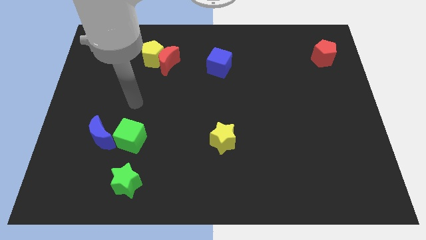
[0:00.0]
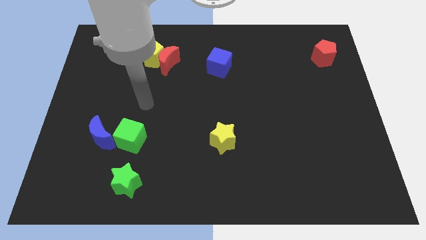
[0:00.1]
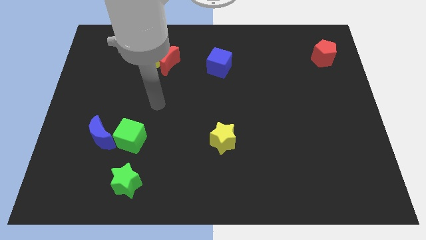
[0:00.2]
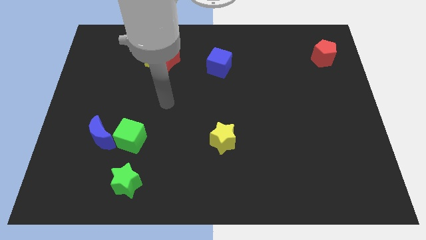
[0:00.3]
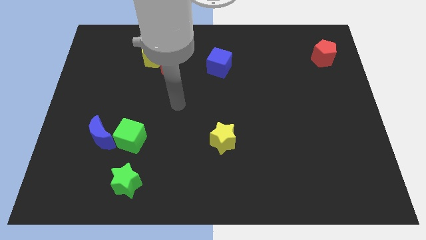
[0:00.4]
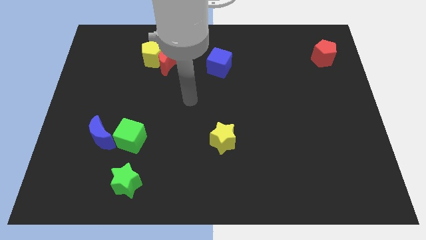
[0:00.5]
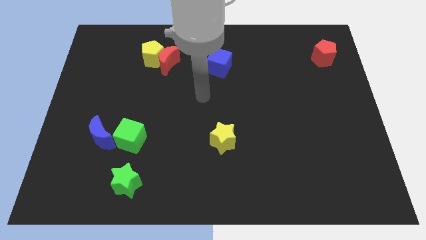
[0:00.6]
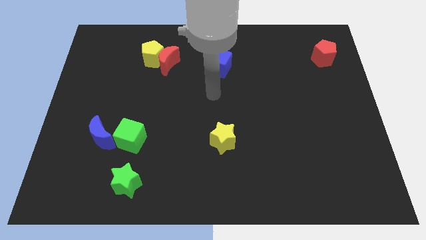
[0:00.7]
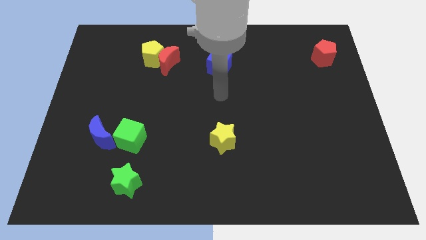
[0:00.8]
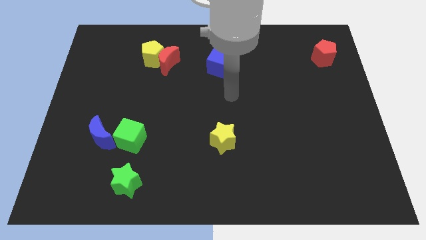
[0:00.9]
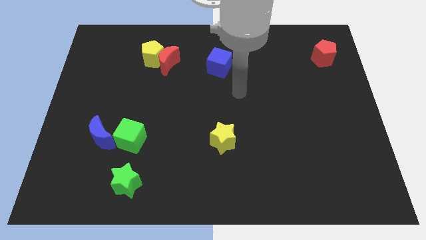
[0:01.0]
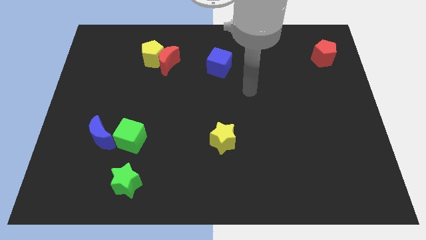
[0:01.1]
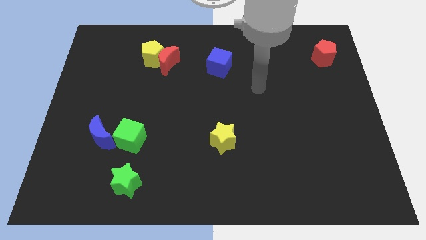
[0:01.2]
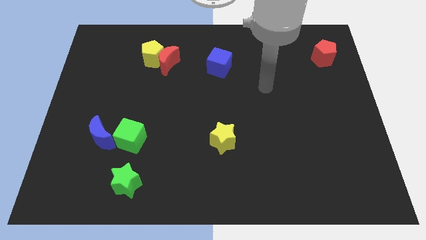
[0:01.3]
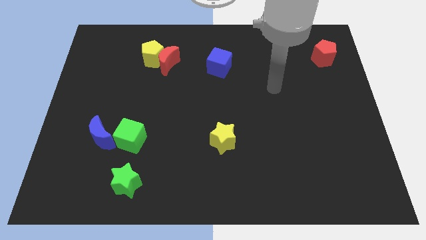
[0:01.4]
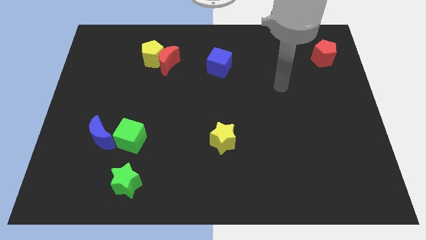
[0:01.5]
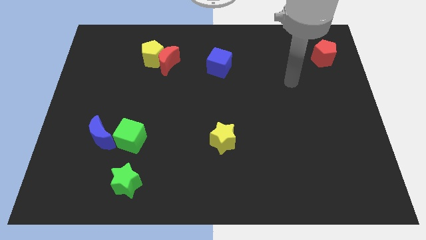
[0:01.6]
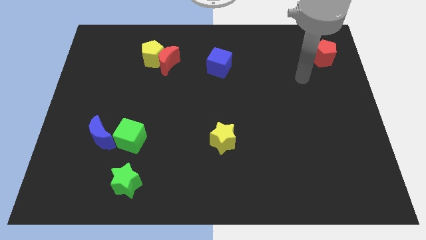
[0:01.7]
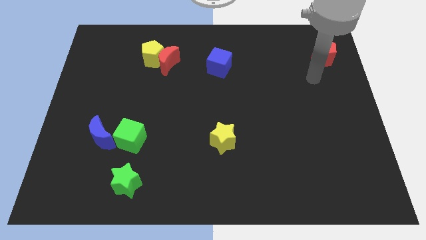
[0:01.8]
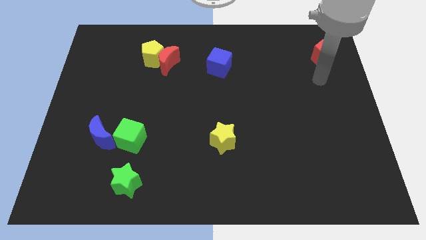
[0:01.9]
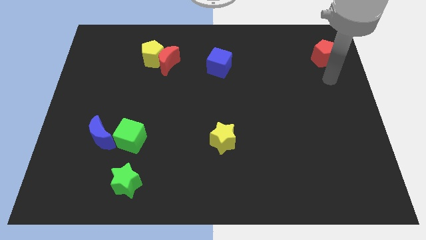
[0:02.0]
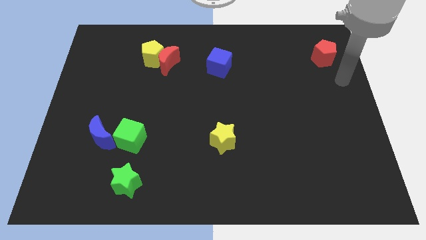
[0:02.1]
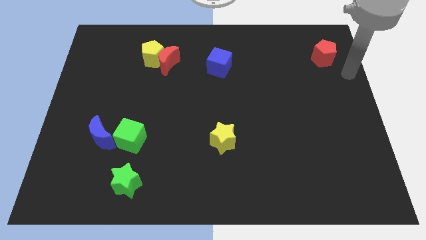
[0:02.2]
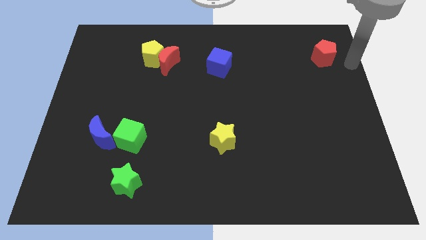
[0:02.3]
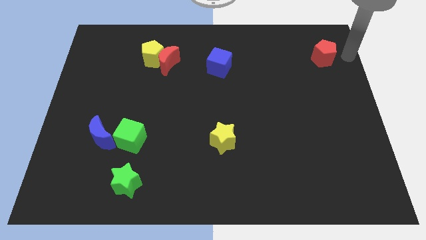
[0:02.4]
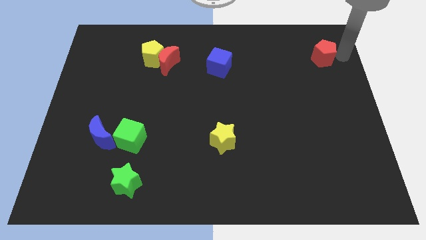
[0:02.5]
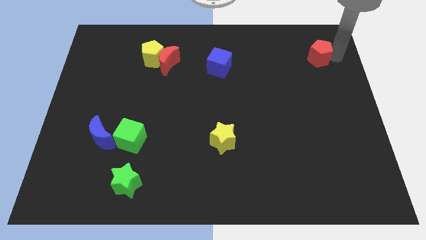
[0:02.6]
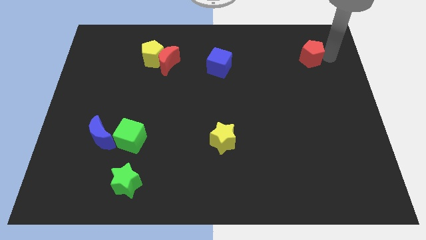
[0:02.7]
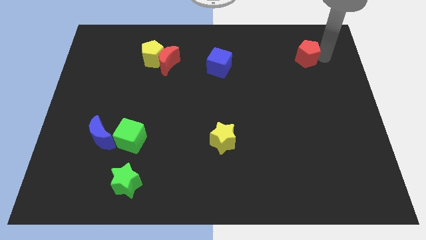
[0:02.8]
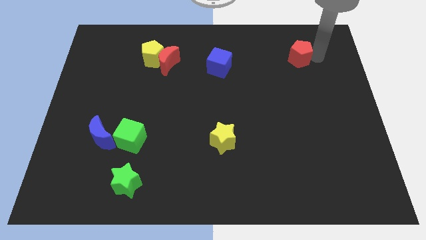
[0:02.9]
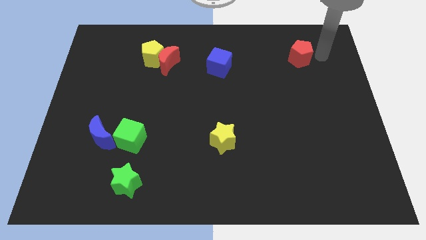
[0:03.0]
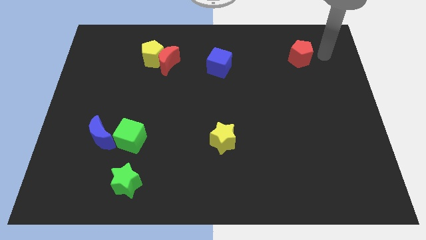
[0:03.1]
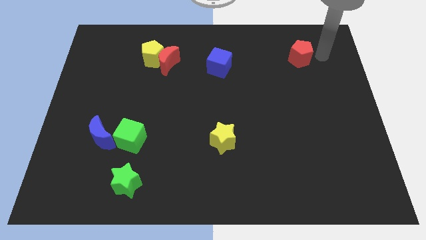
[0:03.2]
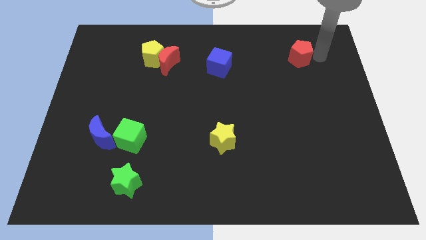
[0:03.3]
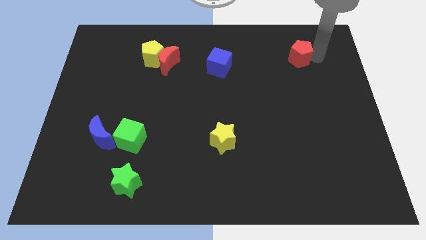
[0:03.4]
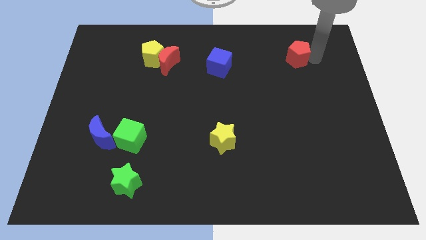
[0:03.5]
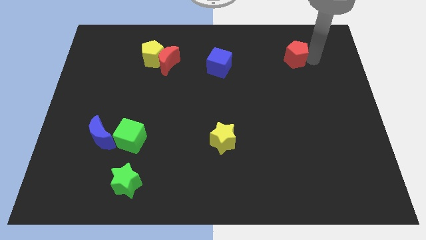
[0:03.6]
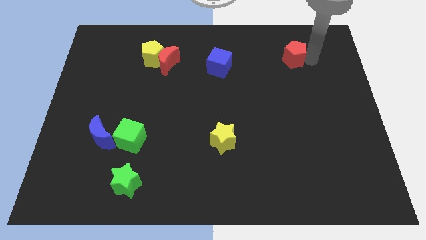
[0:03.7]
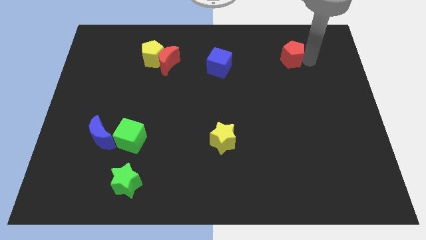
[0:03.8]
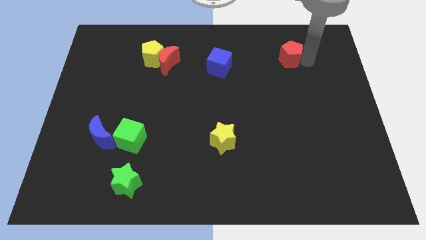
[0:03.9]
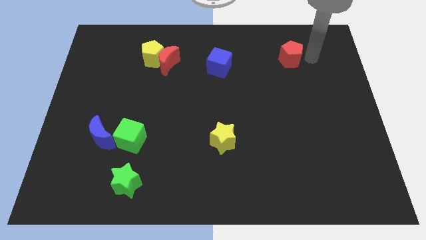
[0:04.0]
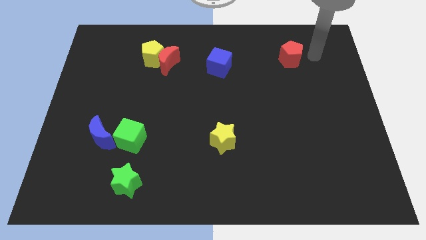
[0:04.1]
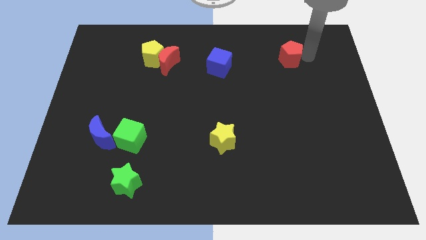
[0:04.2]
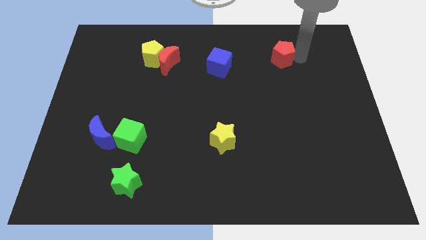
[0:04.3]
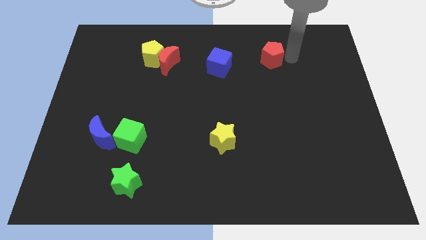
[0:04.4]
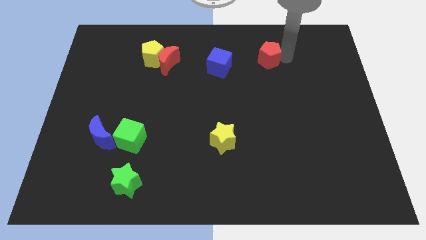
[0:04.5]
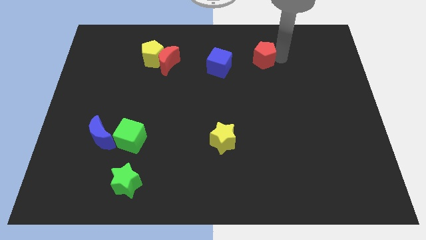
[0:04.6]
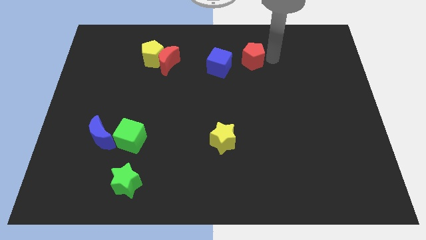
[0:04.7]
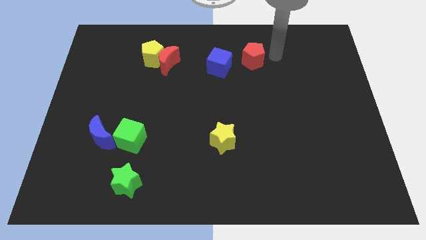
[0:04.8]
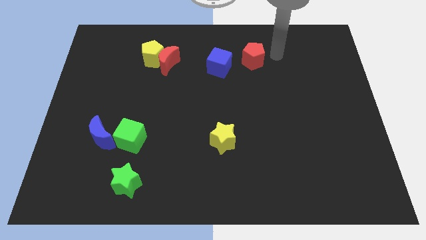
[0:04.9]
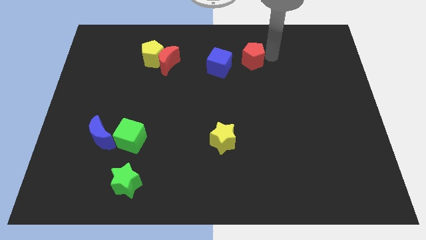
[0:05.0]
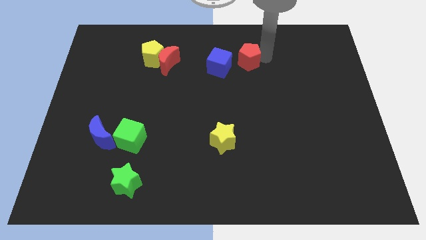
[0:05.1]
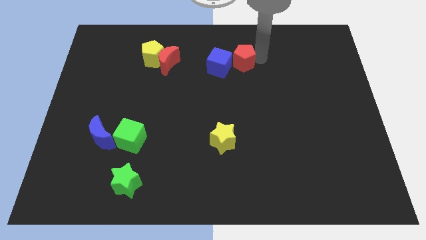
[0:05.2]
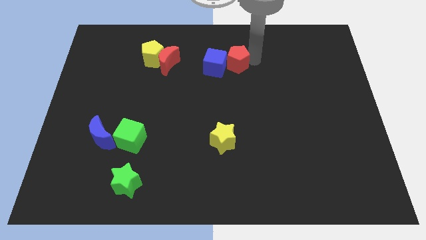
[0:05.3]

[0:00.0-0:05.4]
move the red pentagon to the blue cube

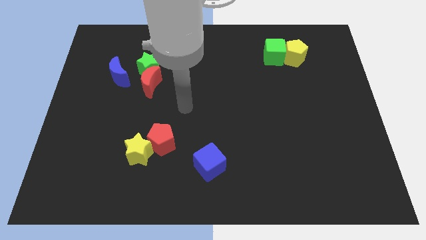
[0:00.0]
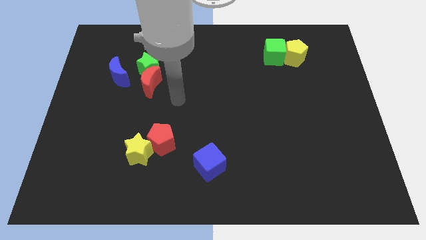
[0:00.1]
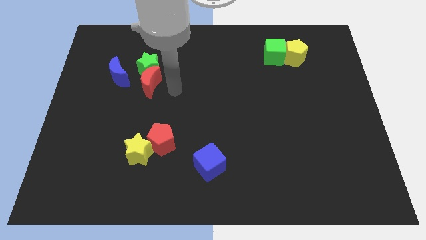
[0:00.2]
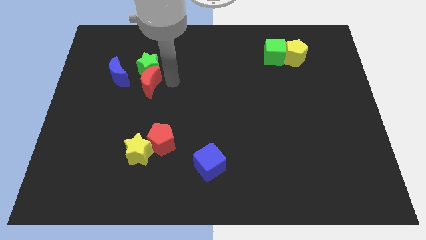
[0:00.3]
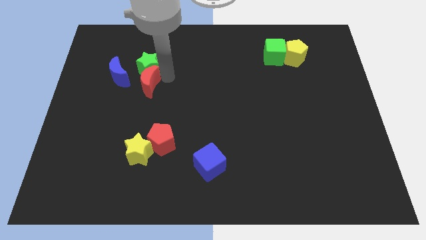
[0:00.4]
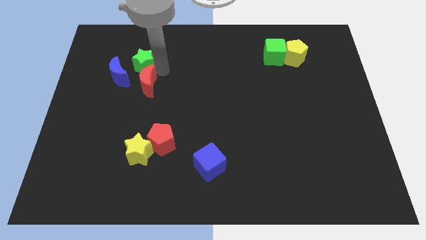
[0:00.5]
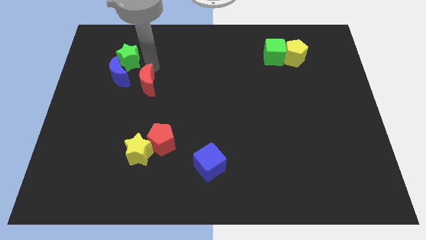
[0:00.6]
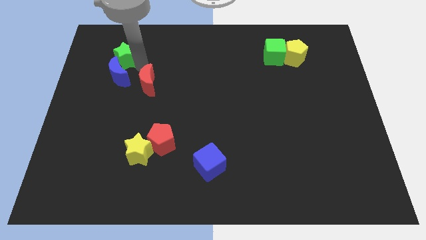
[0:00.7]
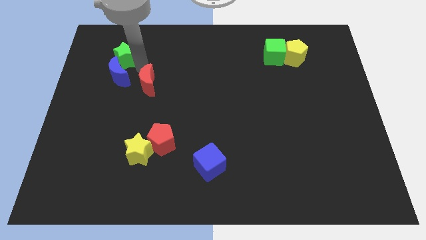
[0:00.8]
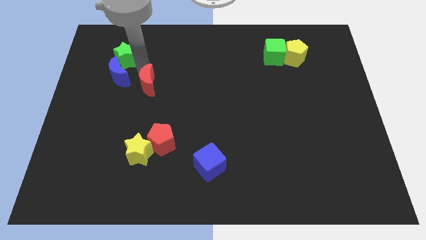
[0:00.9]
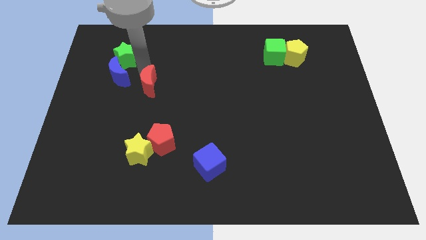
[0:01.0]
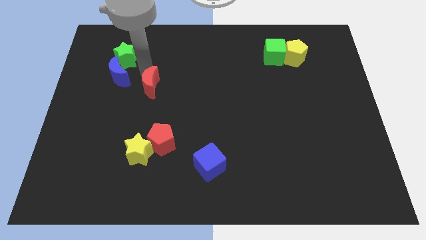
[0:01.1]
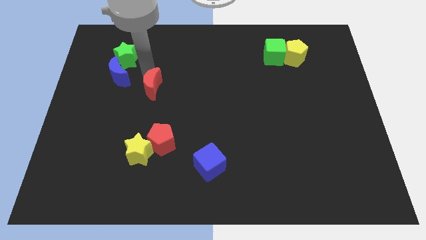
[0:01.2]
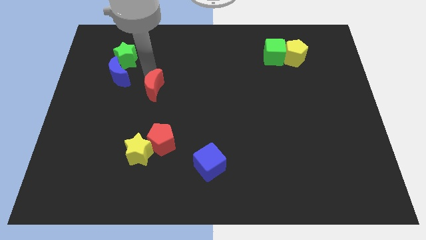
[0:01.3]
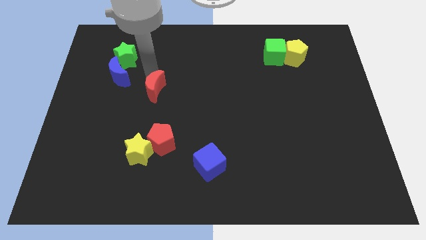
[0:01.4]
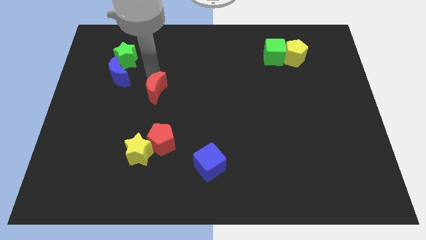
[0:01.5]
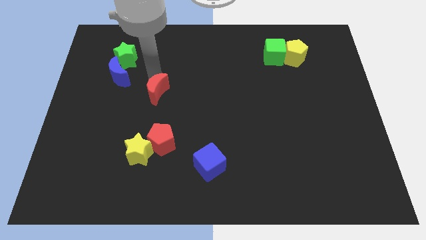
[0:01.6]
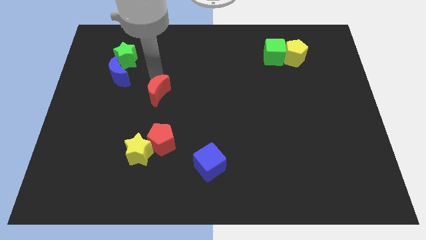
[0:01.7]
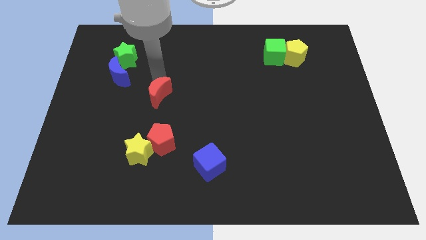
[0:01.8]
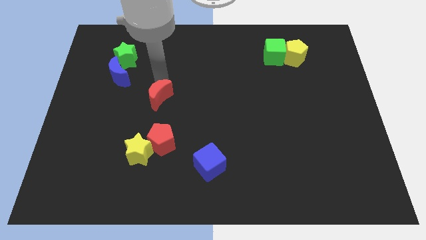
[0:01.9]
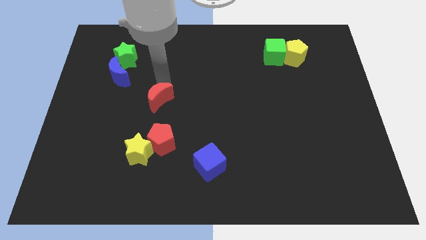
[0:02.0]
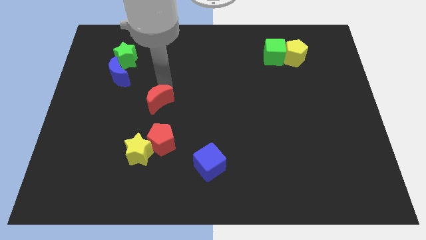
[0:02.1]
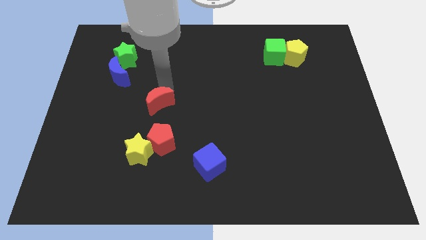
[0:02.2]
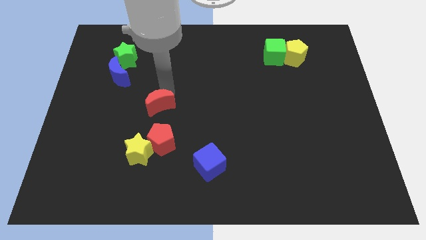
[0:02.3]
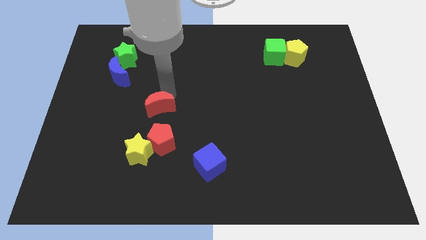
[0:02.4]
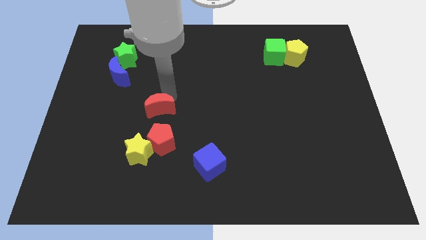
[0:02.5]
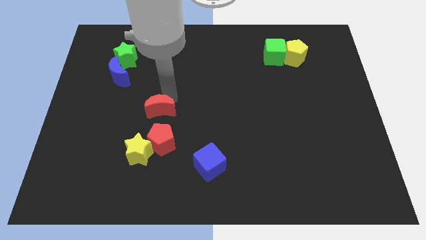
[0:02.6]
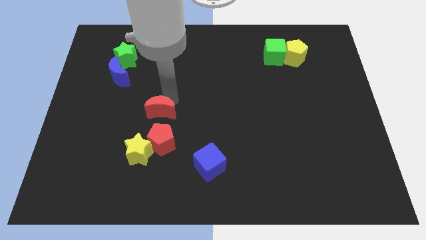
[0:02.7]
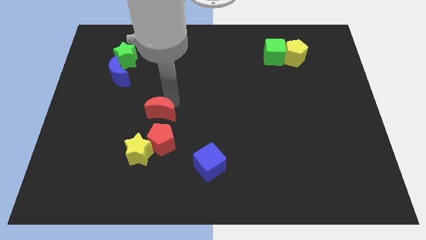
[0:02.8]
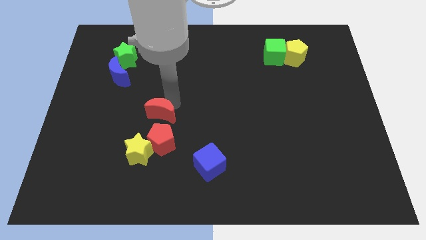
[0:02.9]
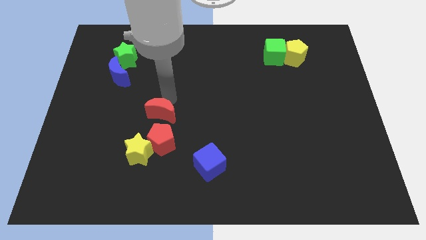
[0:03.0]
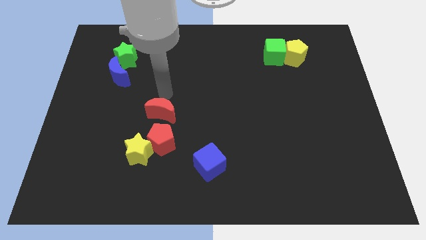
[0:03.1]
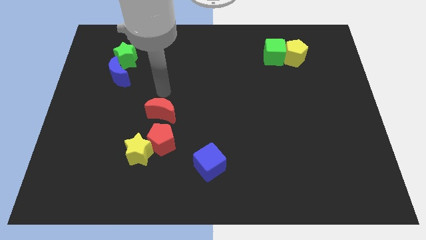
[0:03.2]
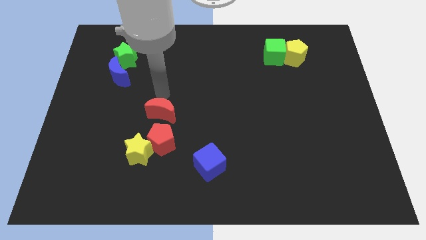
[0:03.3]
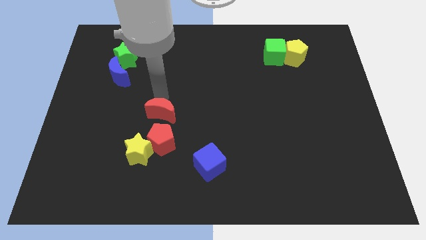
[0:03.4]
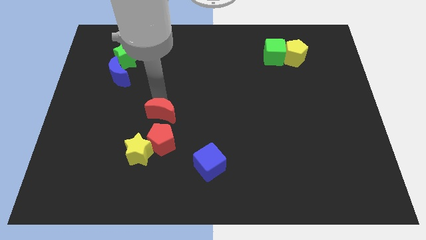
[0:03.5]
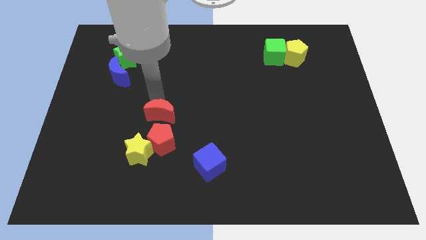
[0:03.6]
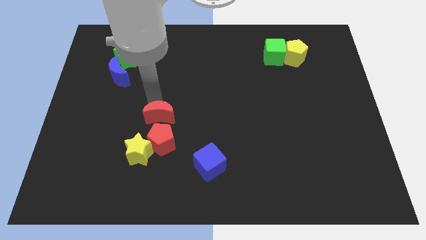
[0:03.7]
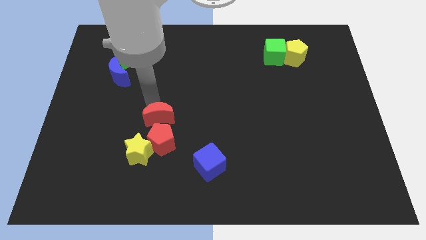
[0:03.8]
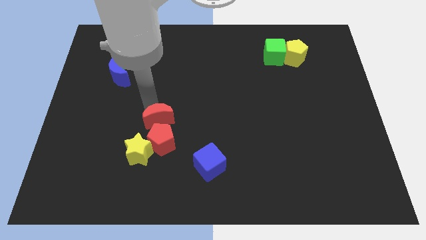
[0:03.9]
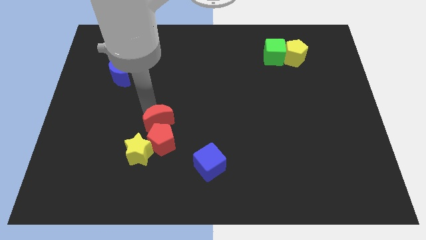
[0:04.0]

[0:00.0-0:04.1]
push the red moon to the red pentagon
